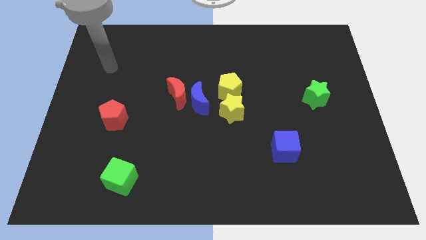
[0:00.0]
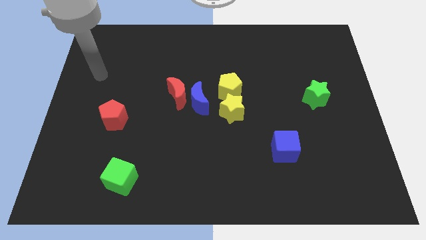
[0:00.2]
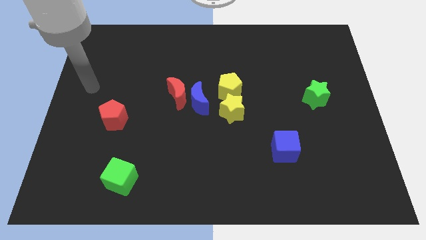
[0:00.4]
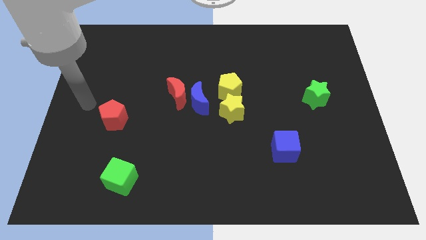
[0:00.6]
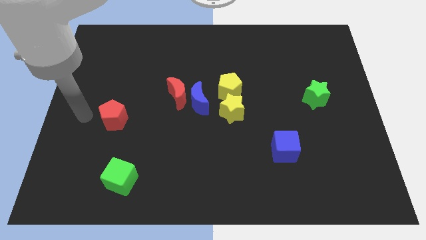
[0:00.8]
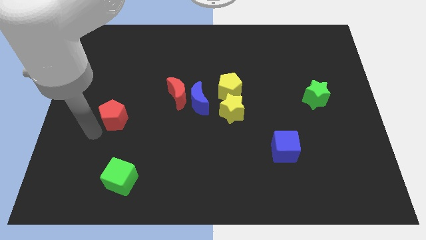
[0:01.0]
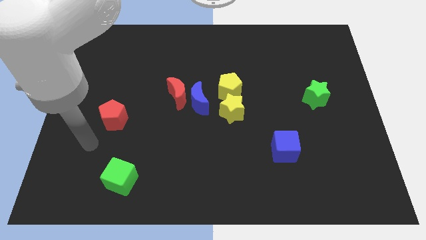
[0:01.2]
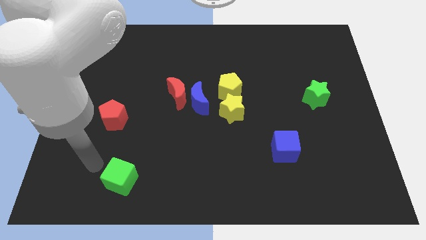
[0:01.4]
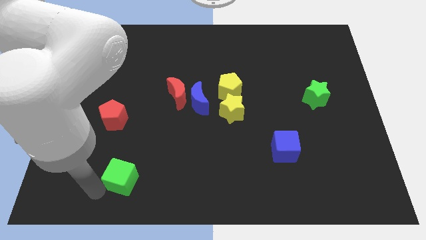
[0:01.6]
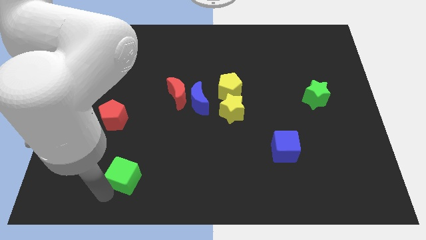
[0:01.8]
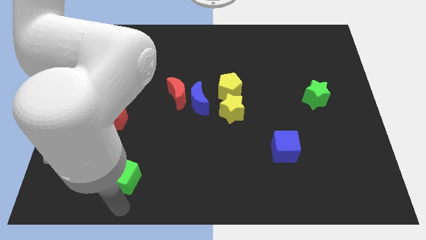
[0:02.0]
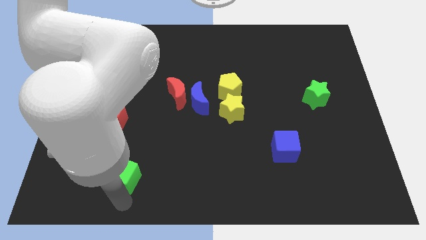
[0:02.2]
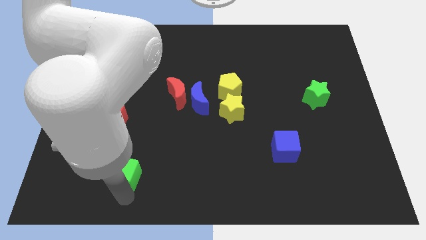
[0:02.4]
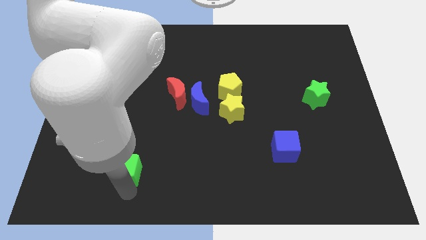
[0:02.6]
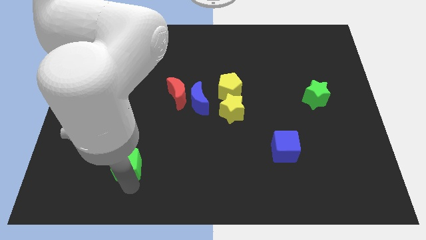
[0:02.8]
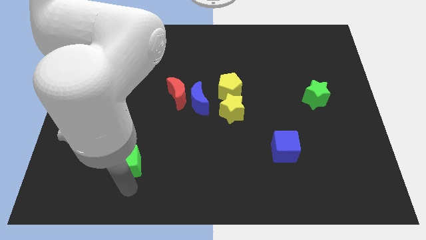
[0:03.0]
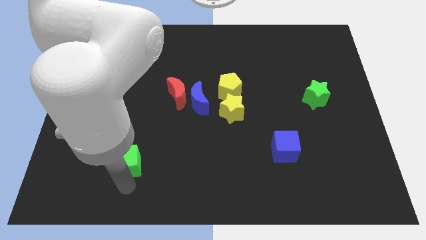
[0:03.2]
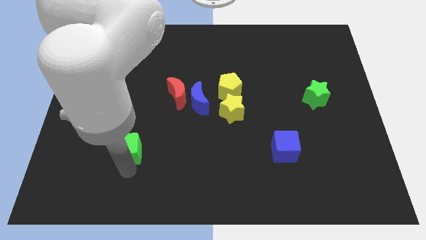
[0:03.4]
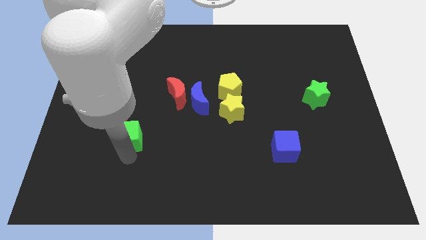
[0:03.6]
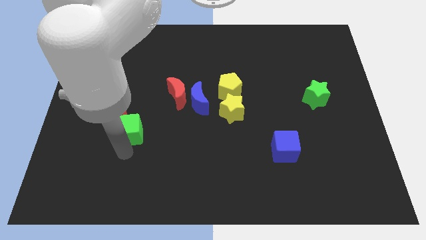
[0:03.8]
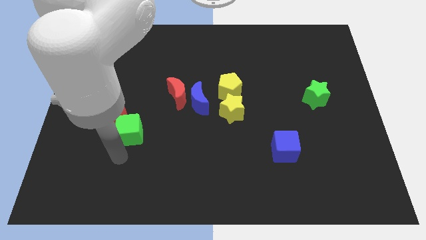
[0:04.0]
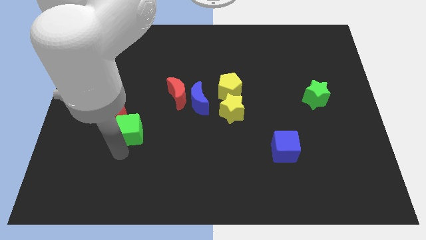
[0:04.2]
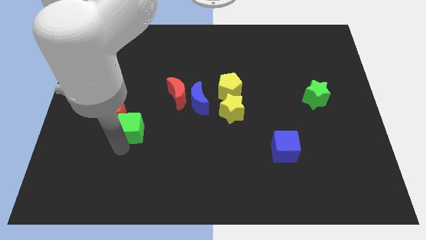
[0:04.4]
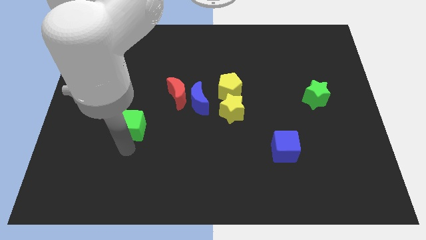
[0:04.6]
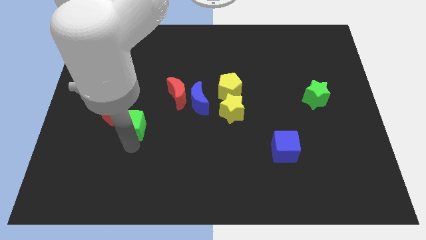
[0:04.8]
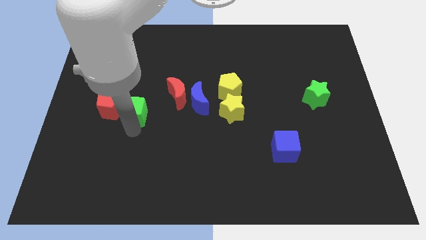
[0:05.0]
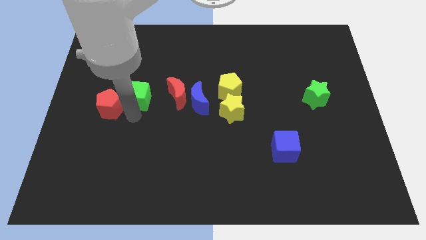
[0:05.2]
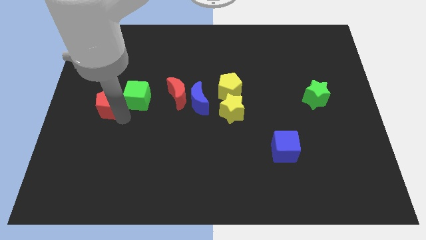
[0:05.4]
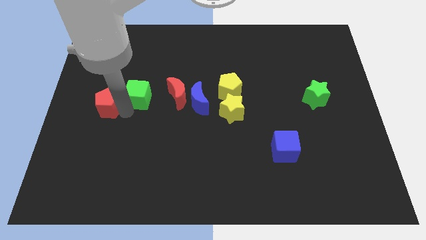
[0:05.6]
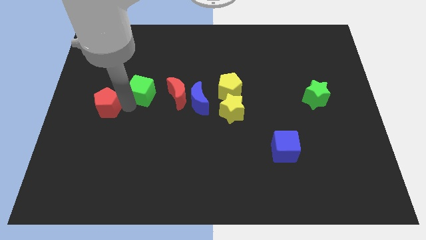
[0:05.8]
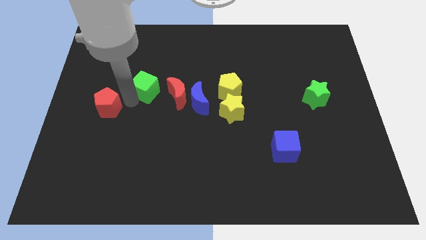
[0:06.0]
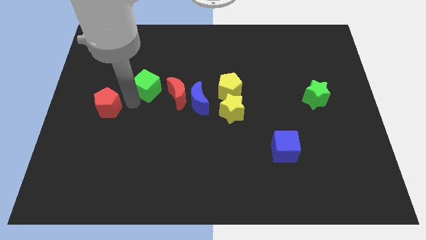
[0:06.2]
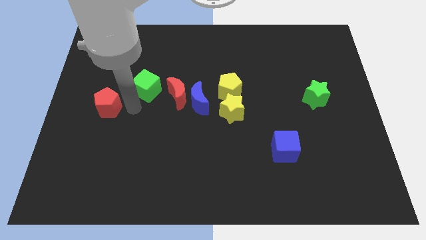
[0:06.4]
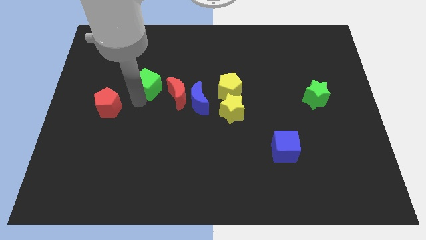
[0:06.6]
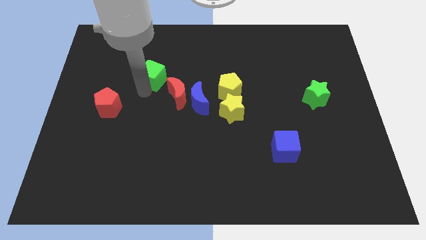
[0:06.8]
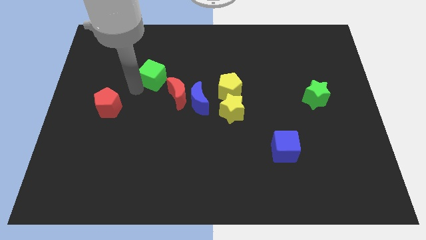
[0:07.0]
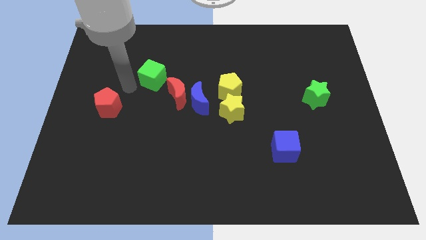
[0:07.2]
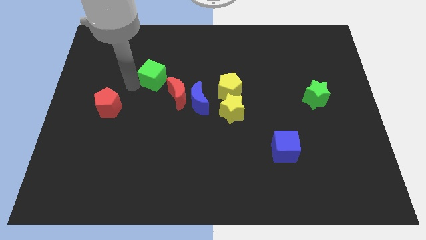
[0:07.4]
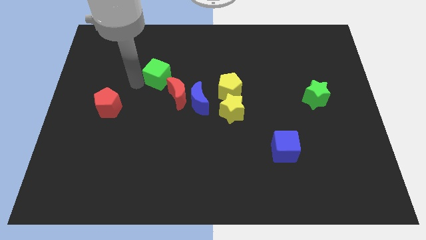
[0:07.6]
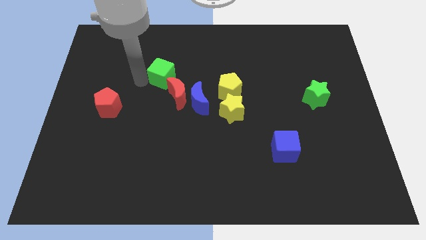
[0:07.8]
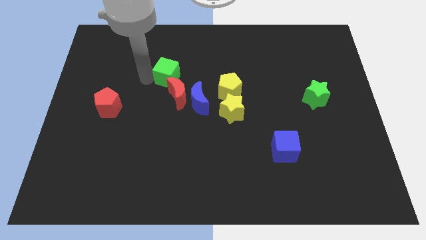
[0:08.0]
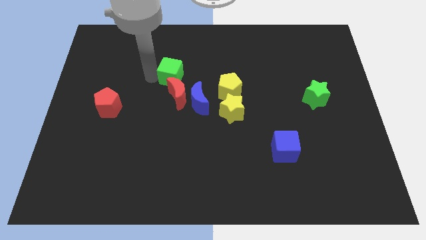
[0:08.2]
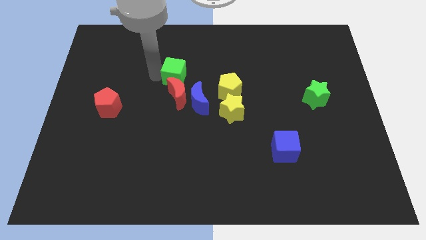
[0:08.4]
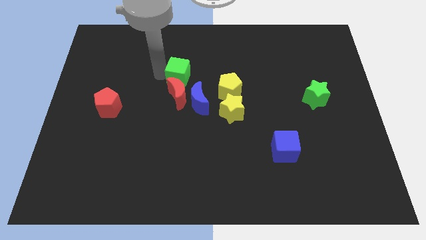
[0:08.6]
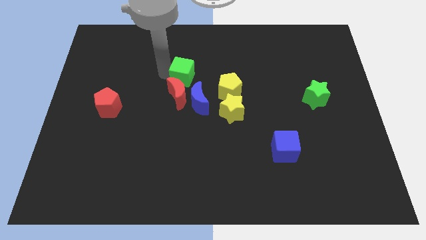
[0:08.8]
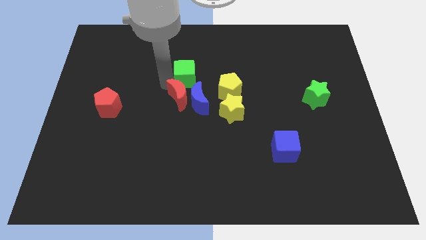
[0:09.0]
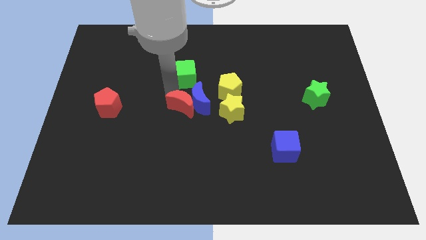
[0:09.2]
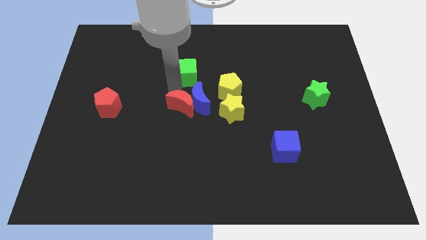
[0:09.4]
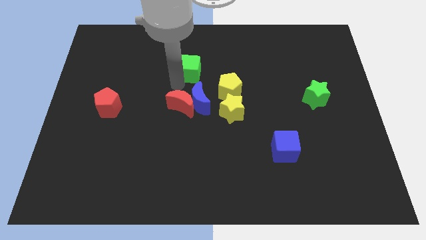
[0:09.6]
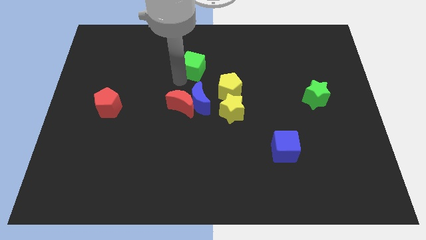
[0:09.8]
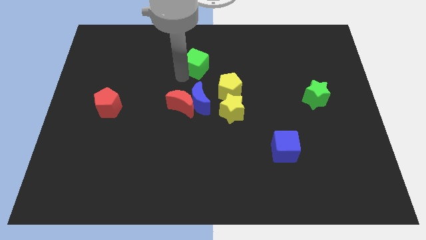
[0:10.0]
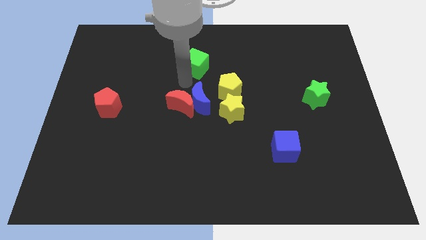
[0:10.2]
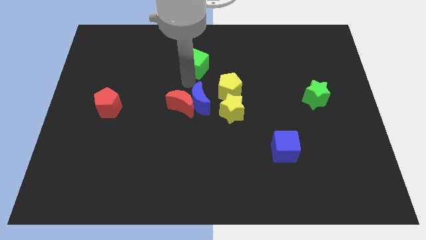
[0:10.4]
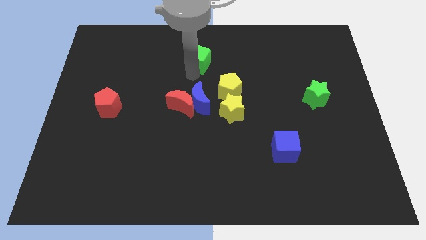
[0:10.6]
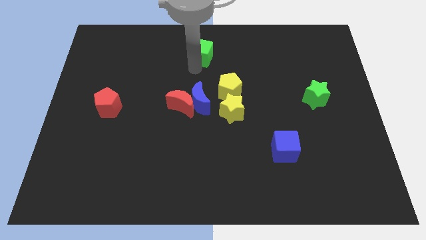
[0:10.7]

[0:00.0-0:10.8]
put the green cube to the towards your base

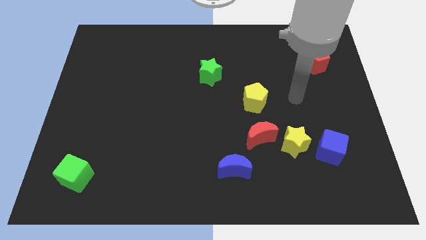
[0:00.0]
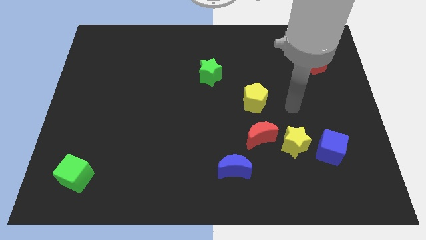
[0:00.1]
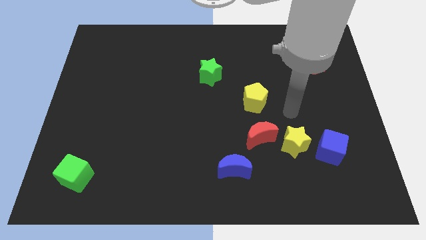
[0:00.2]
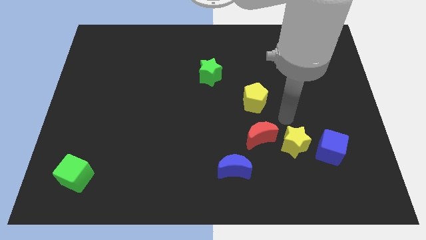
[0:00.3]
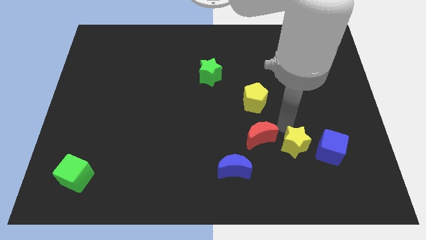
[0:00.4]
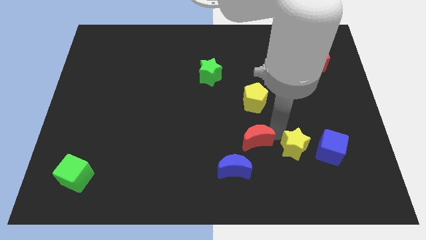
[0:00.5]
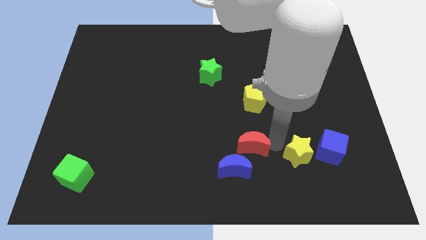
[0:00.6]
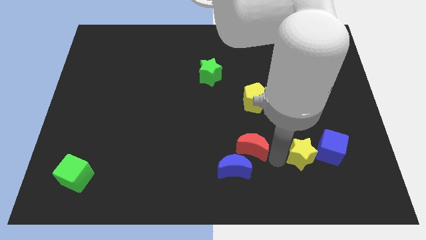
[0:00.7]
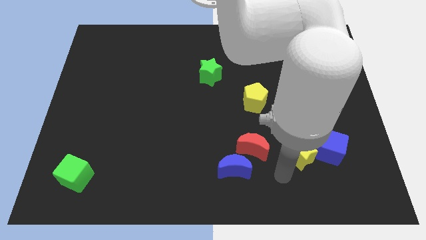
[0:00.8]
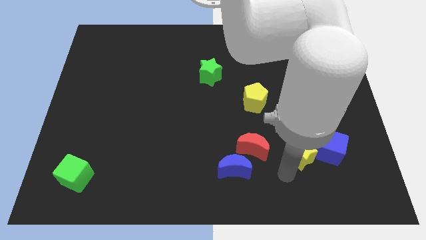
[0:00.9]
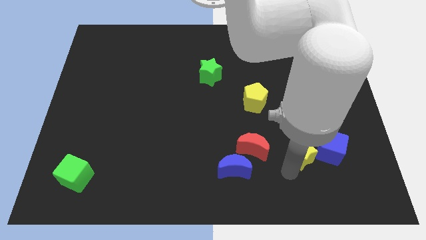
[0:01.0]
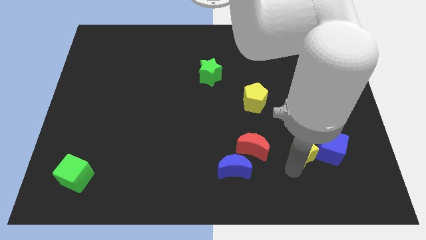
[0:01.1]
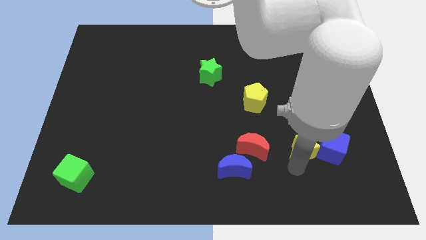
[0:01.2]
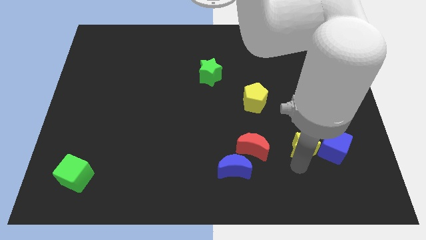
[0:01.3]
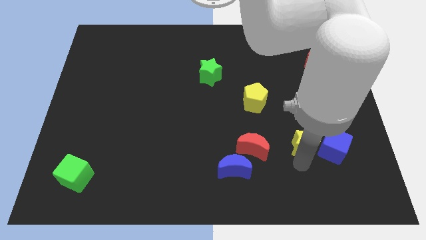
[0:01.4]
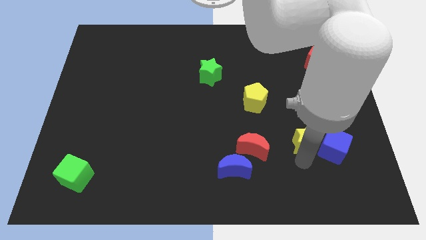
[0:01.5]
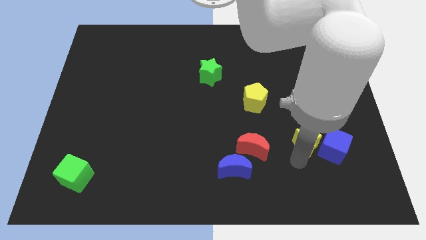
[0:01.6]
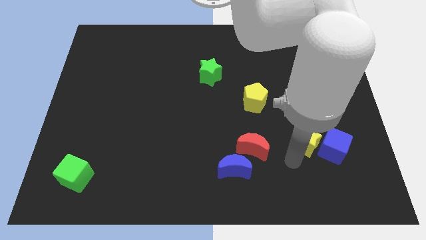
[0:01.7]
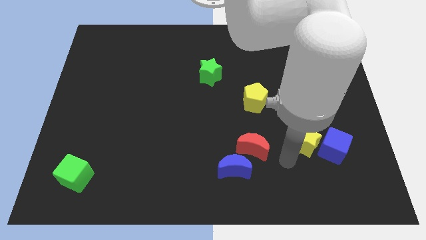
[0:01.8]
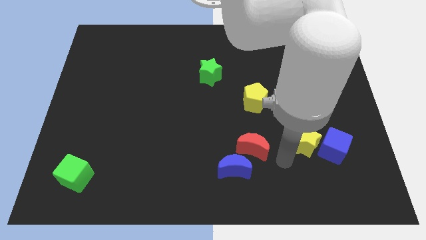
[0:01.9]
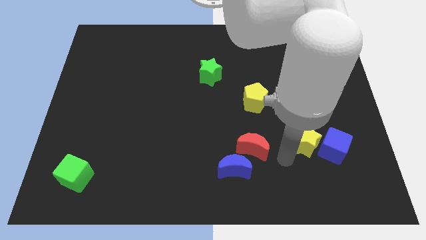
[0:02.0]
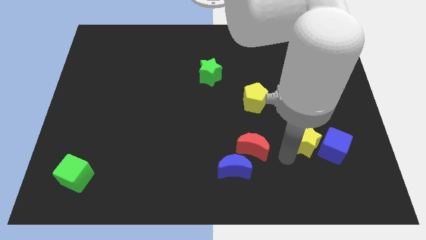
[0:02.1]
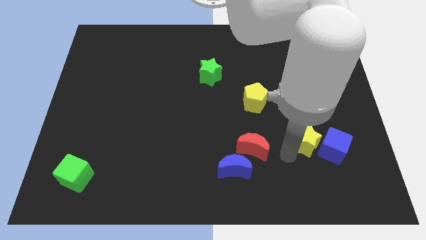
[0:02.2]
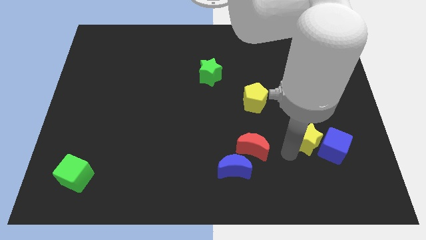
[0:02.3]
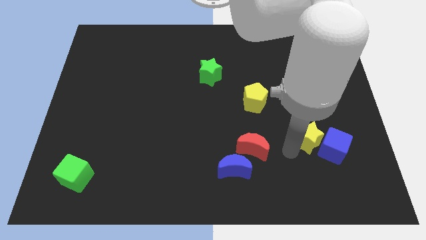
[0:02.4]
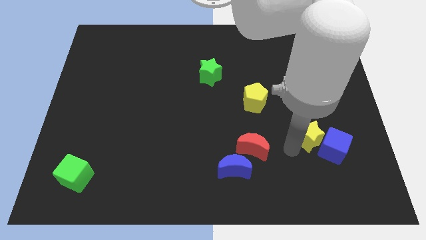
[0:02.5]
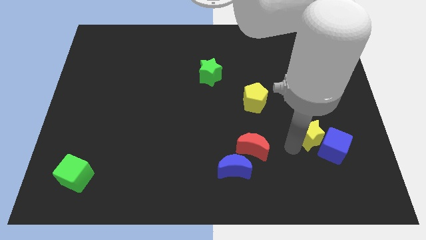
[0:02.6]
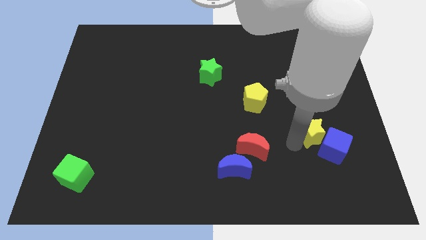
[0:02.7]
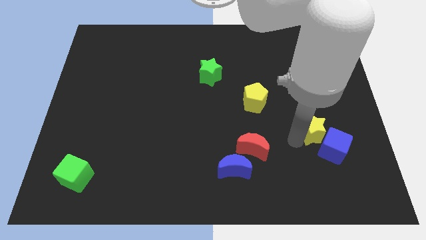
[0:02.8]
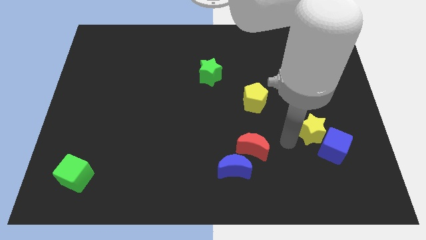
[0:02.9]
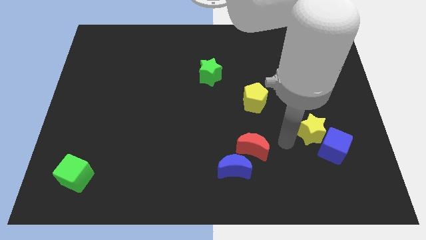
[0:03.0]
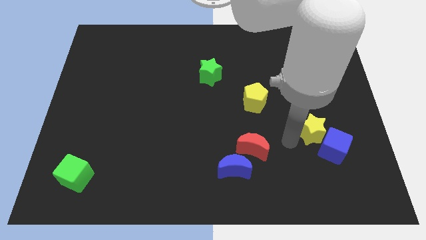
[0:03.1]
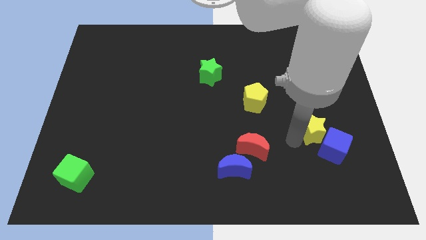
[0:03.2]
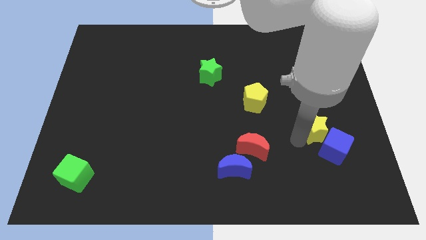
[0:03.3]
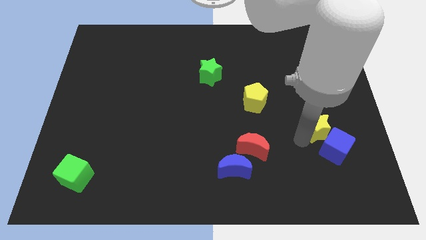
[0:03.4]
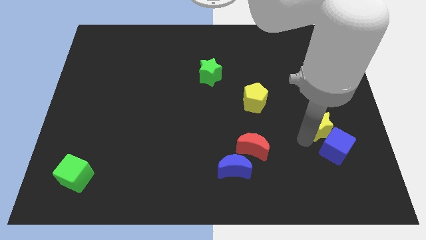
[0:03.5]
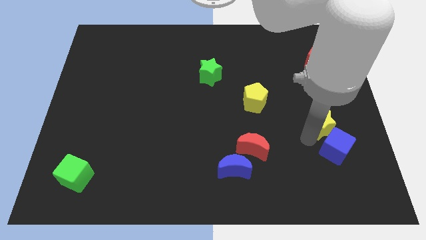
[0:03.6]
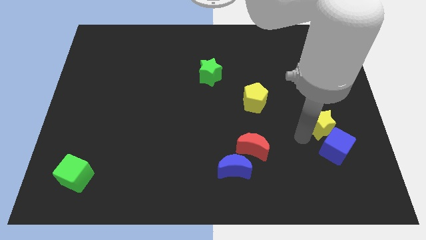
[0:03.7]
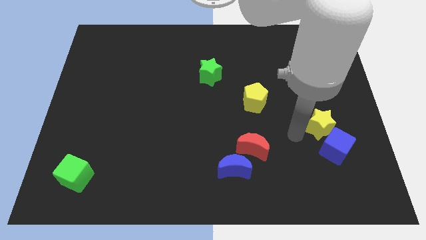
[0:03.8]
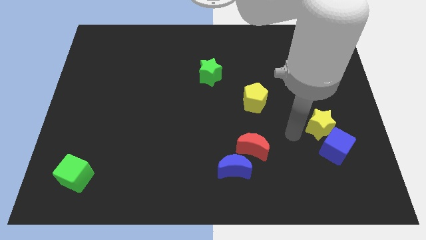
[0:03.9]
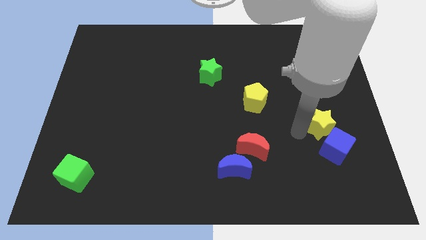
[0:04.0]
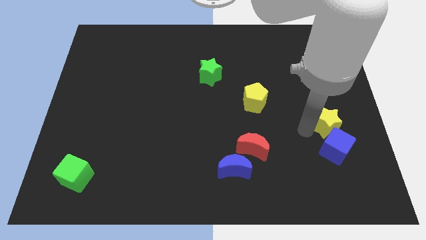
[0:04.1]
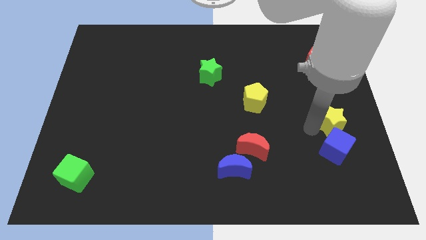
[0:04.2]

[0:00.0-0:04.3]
put the yellow star to the center right
